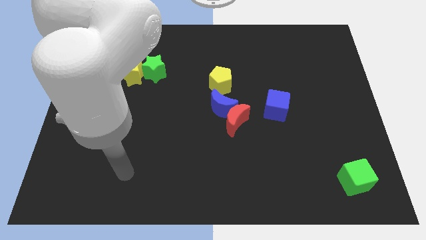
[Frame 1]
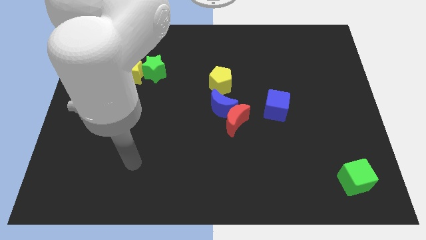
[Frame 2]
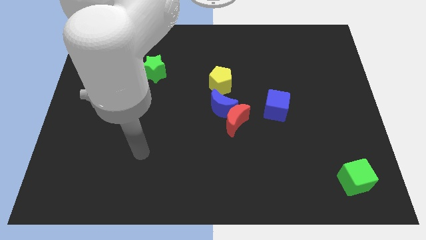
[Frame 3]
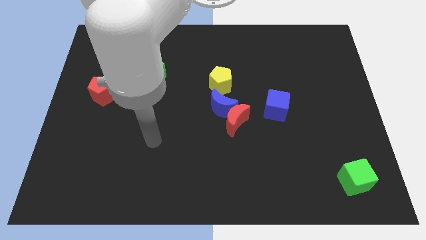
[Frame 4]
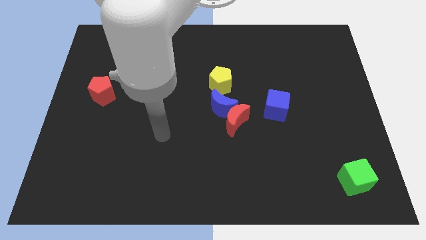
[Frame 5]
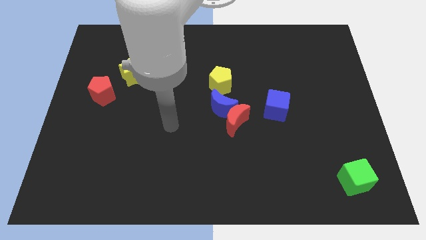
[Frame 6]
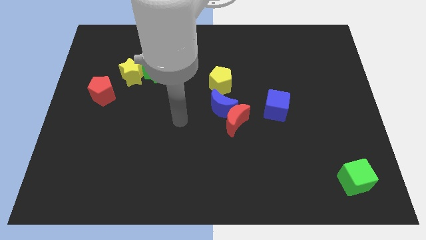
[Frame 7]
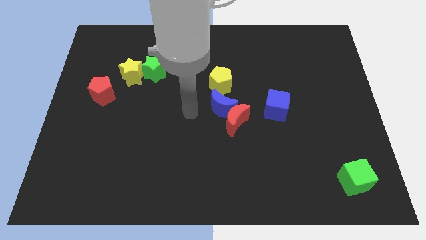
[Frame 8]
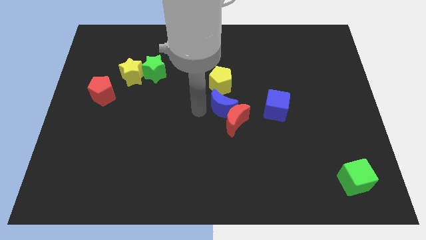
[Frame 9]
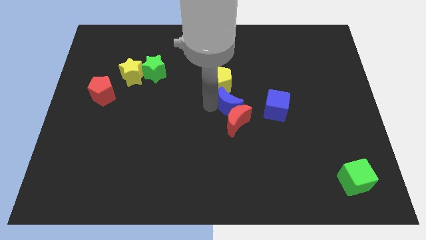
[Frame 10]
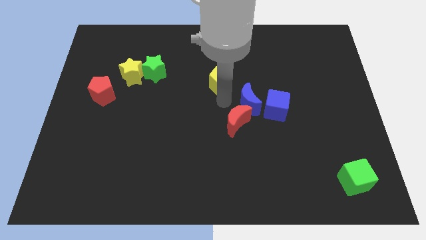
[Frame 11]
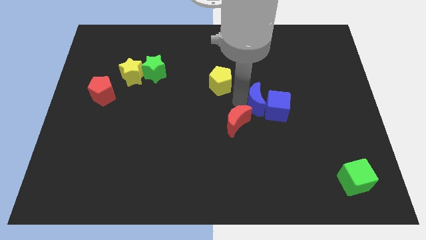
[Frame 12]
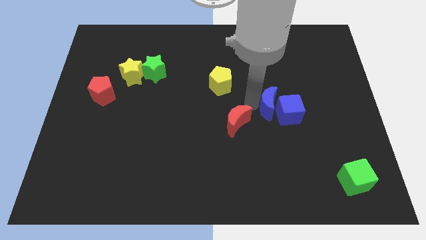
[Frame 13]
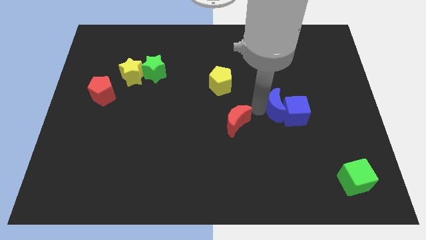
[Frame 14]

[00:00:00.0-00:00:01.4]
move the red moon away from the blue moon

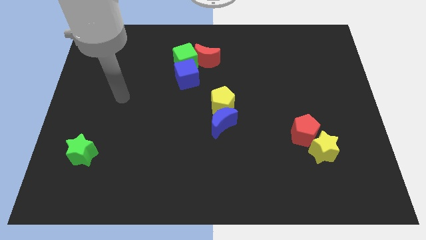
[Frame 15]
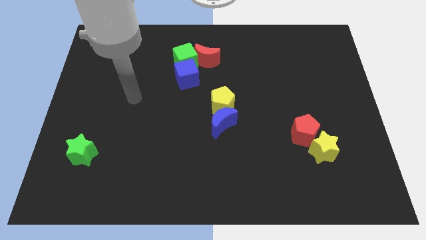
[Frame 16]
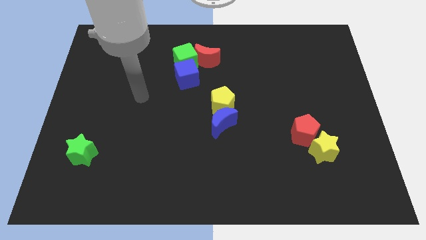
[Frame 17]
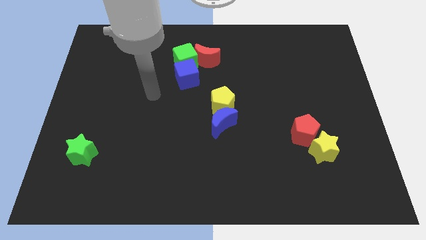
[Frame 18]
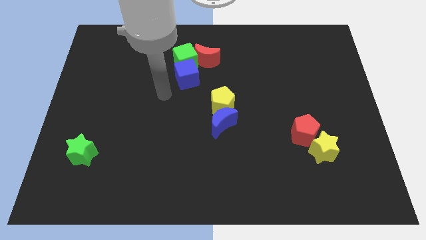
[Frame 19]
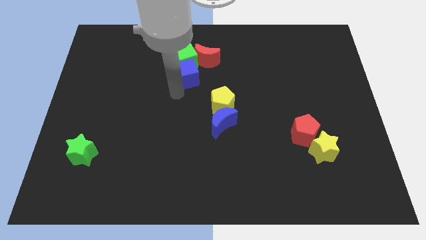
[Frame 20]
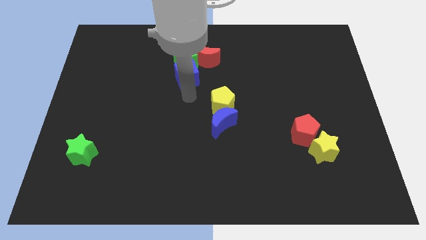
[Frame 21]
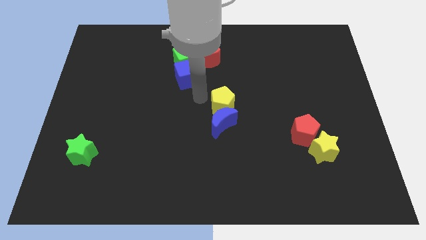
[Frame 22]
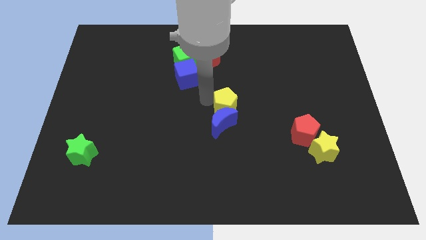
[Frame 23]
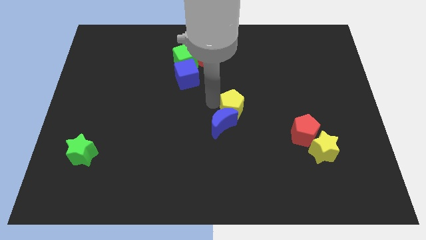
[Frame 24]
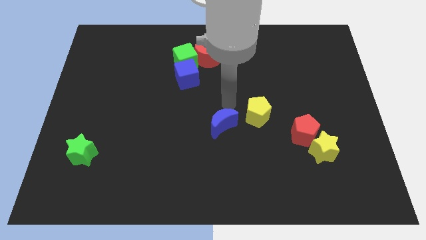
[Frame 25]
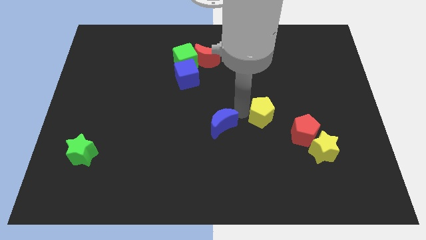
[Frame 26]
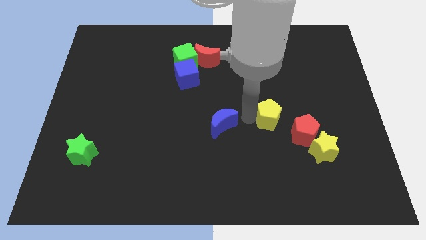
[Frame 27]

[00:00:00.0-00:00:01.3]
pull the blue moon apart from the yellow pentagon

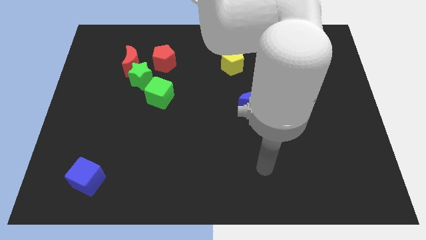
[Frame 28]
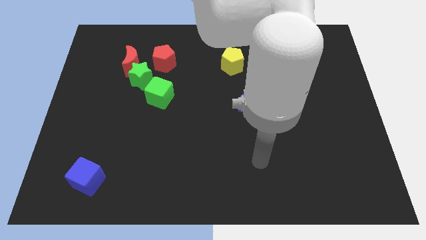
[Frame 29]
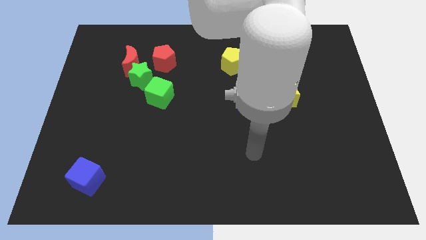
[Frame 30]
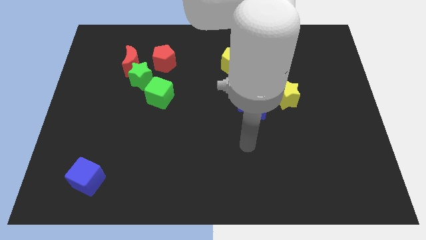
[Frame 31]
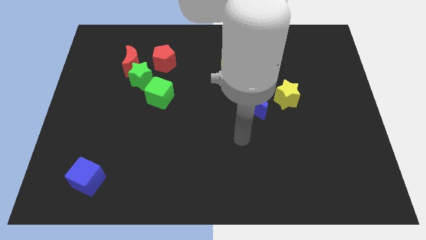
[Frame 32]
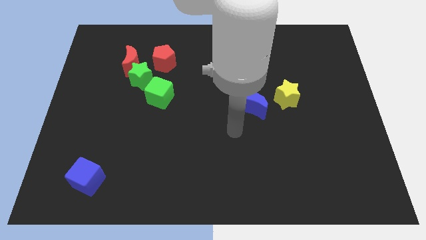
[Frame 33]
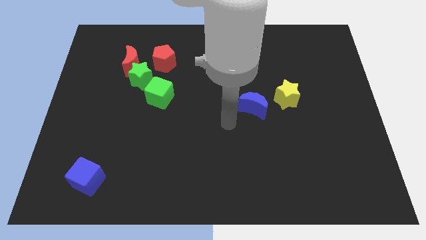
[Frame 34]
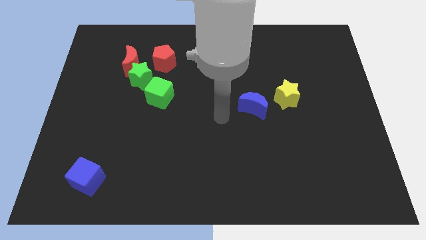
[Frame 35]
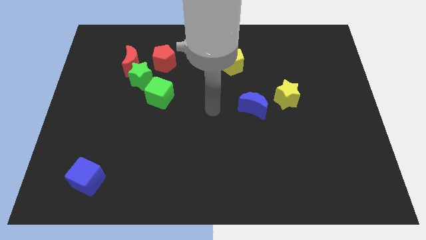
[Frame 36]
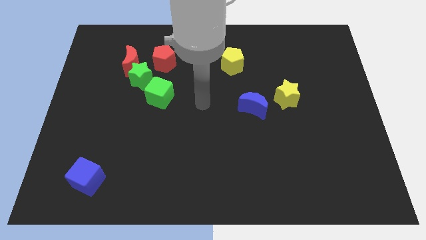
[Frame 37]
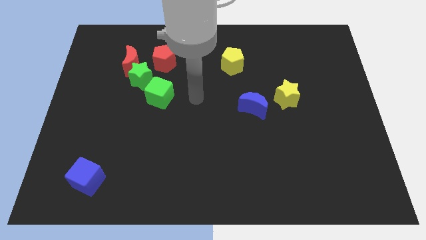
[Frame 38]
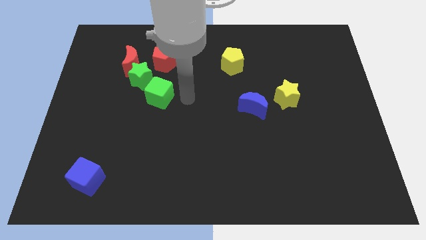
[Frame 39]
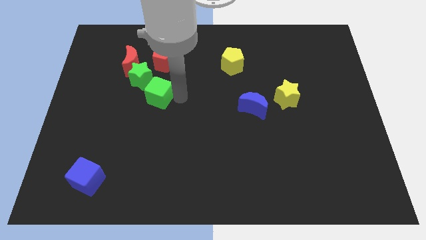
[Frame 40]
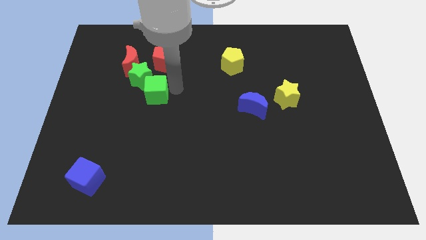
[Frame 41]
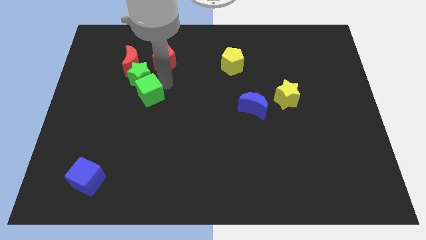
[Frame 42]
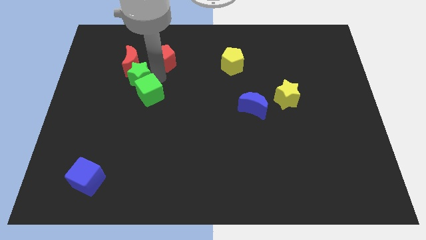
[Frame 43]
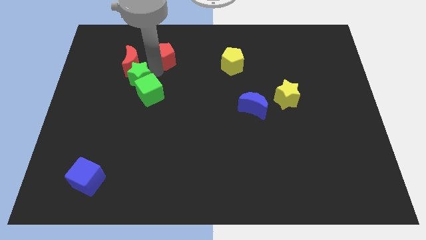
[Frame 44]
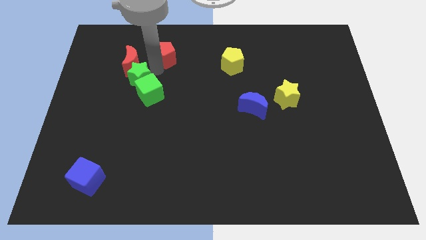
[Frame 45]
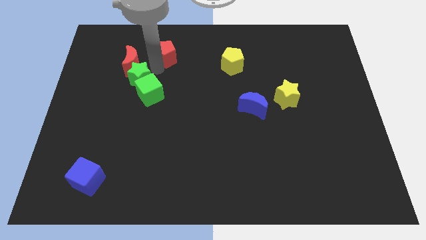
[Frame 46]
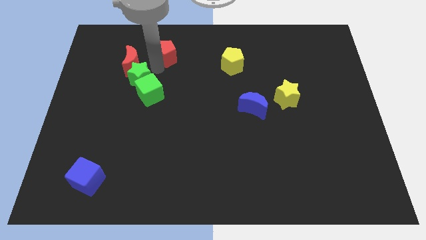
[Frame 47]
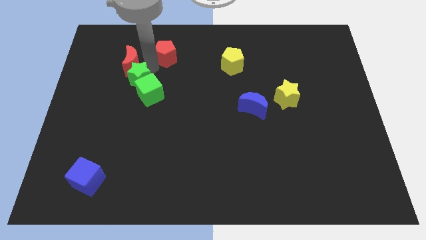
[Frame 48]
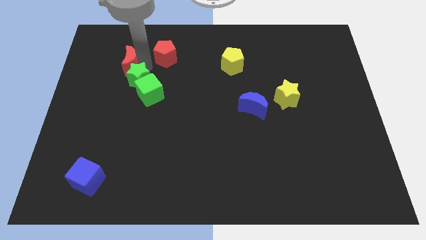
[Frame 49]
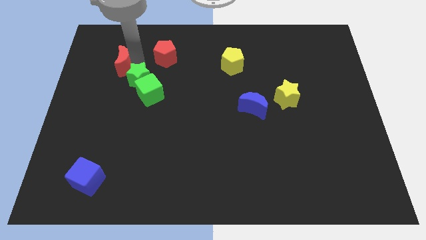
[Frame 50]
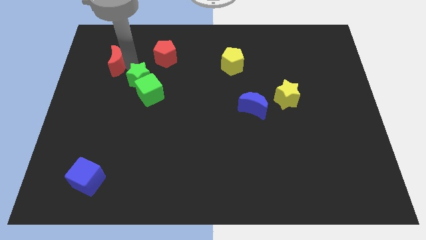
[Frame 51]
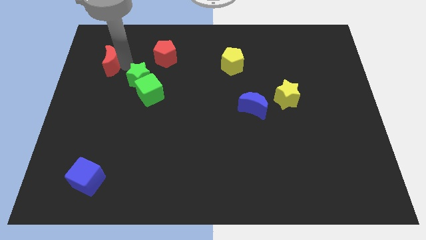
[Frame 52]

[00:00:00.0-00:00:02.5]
pull the red moon apart from the green star and red pentagon

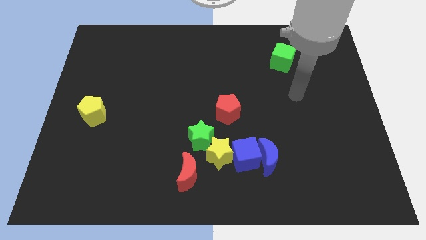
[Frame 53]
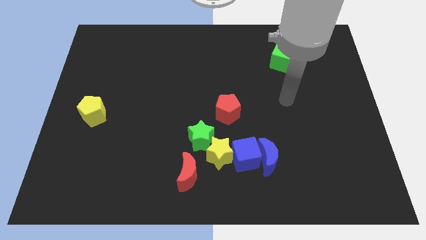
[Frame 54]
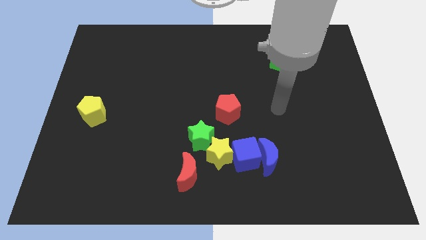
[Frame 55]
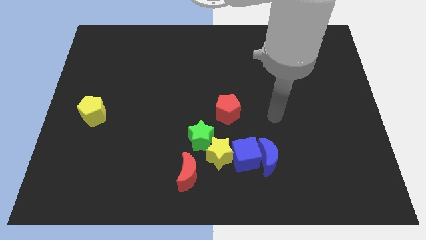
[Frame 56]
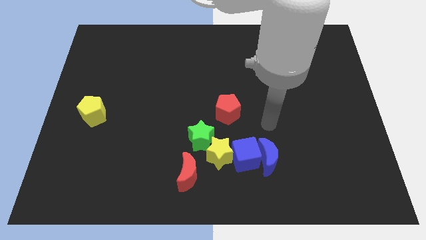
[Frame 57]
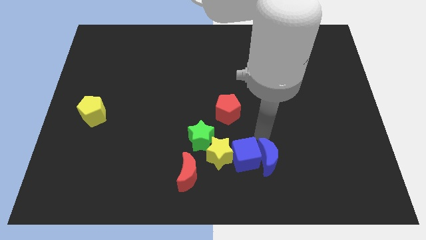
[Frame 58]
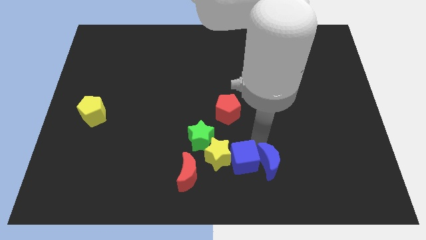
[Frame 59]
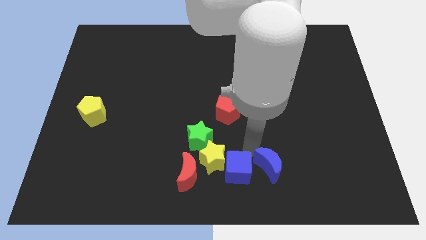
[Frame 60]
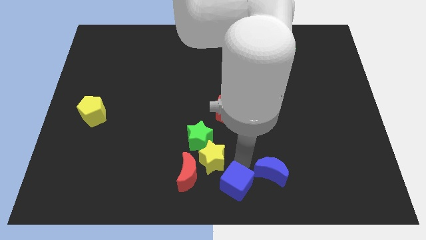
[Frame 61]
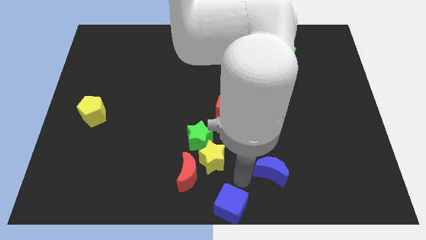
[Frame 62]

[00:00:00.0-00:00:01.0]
pull the blue moon apart from the blue cube

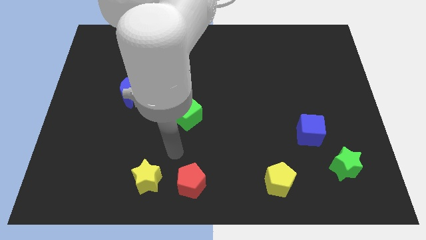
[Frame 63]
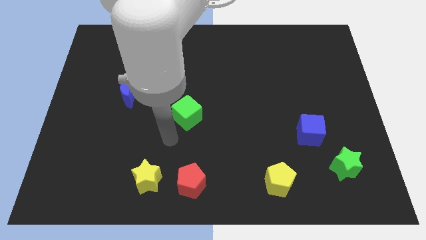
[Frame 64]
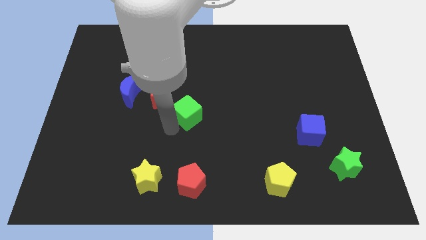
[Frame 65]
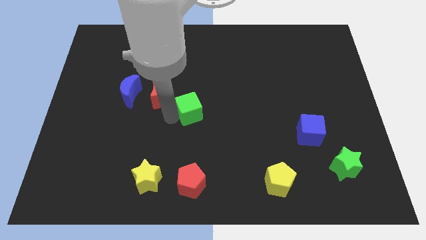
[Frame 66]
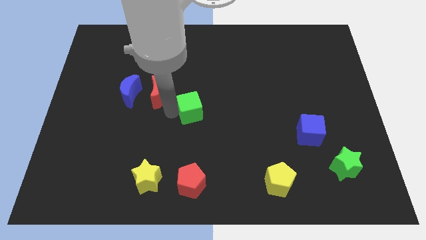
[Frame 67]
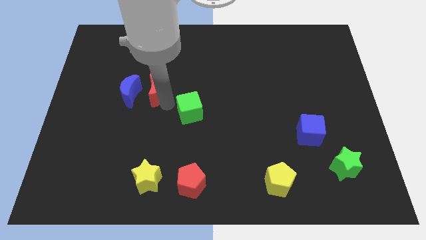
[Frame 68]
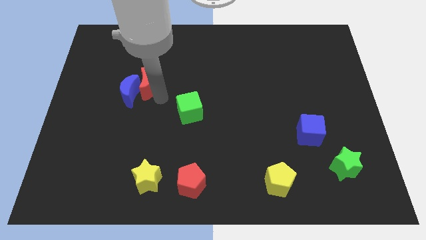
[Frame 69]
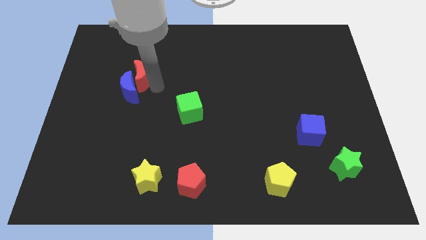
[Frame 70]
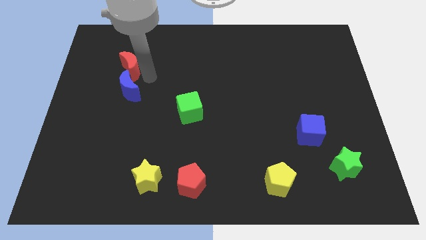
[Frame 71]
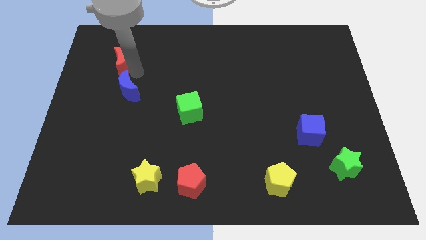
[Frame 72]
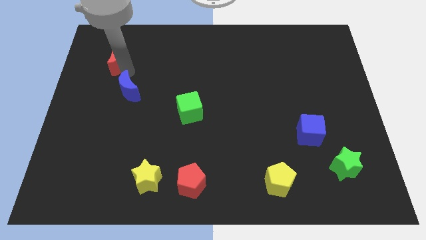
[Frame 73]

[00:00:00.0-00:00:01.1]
pull the blue moon apart from the red moon

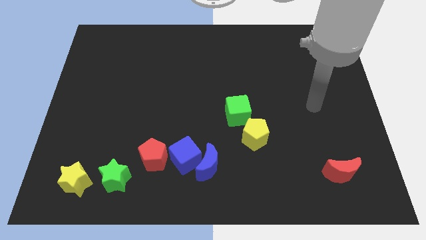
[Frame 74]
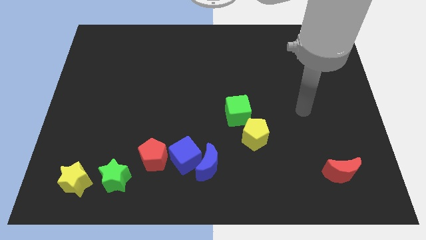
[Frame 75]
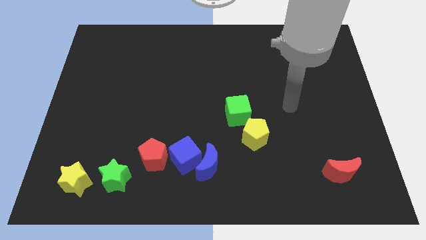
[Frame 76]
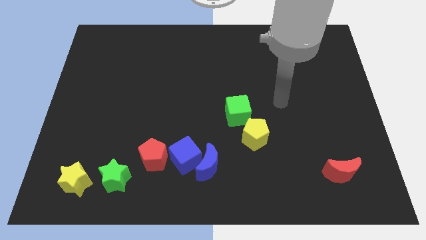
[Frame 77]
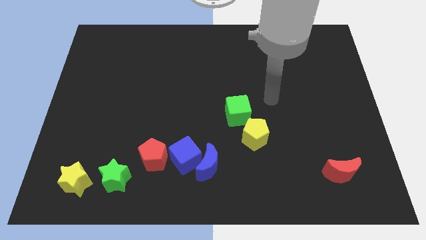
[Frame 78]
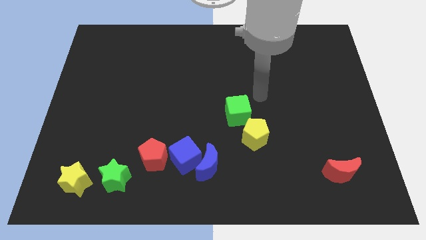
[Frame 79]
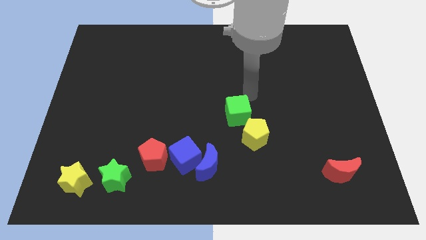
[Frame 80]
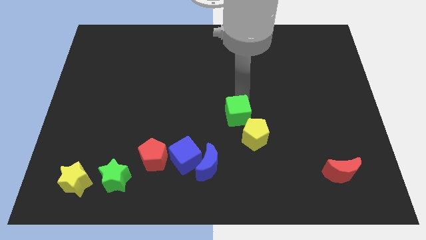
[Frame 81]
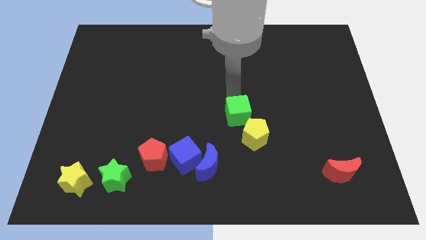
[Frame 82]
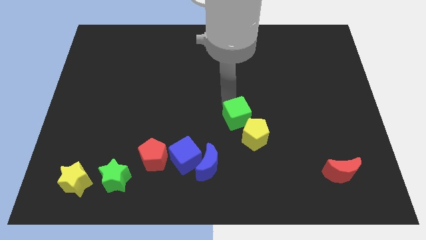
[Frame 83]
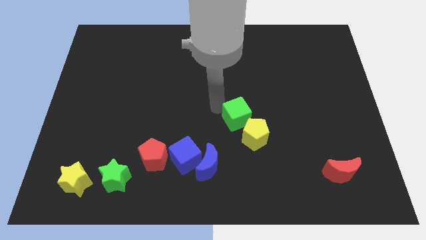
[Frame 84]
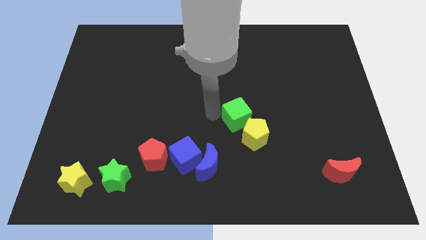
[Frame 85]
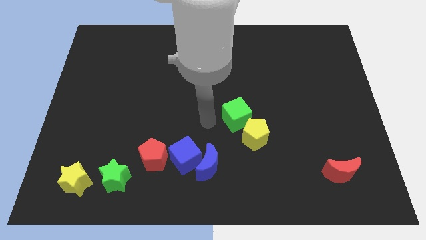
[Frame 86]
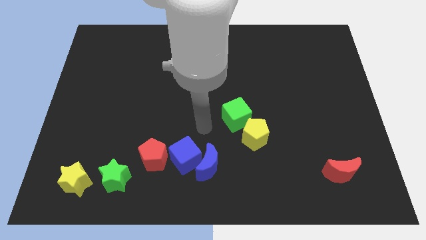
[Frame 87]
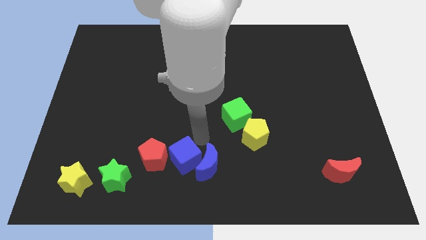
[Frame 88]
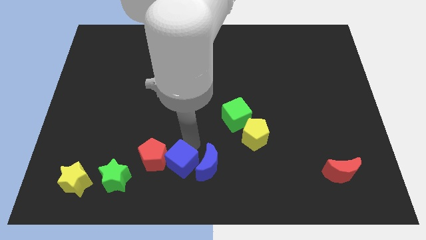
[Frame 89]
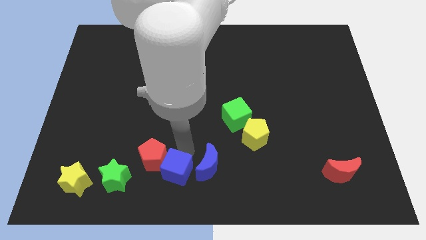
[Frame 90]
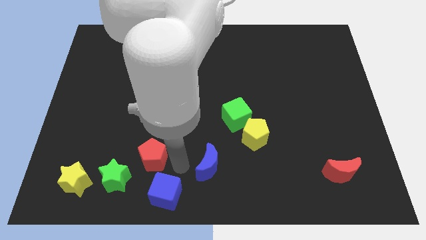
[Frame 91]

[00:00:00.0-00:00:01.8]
separate the blue moon from the blue cube

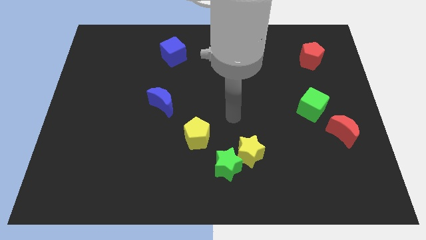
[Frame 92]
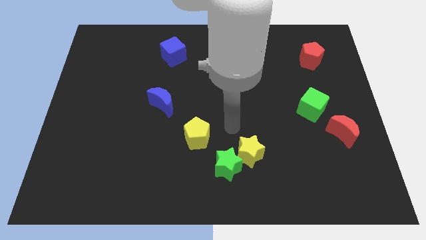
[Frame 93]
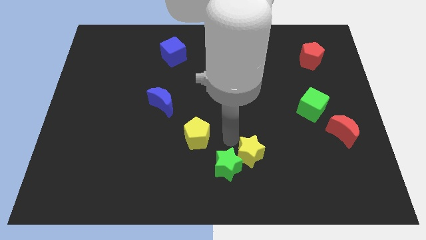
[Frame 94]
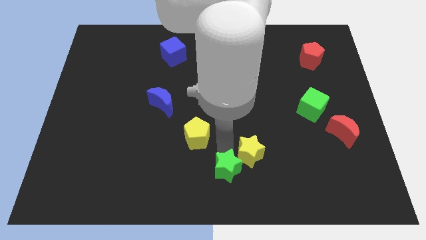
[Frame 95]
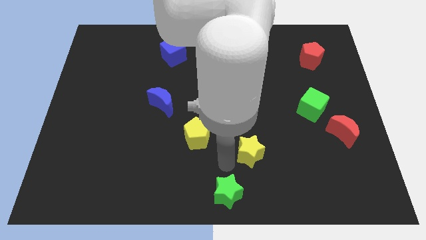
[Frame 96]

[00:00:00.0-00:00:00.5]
move the yellow star away from the green star
